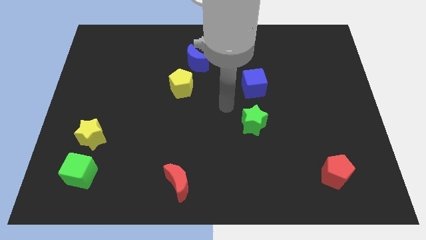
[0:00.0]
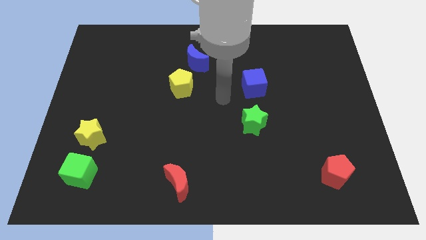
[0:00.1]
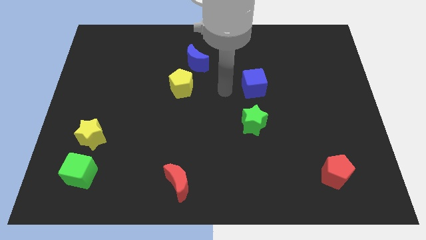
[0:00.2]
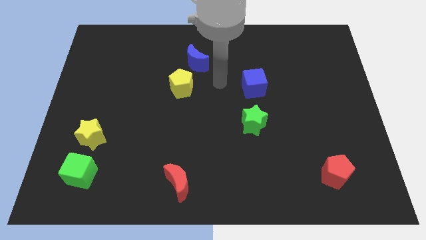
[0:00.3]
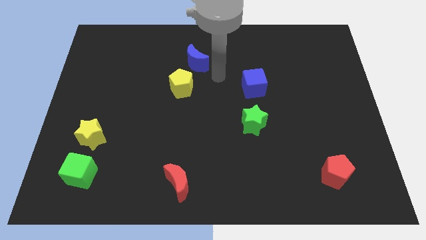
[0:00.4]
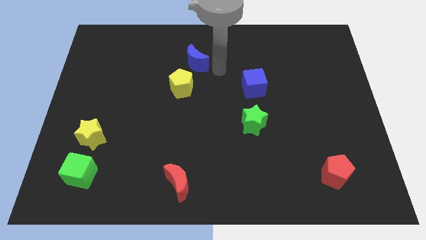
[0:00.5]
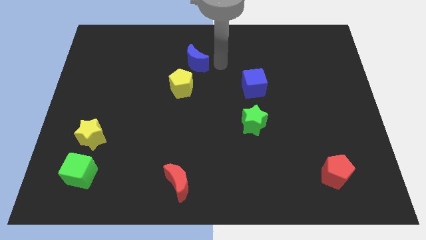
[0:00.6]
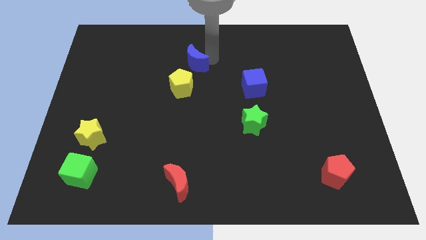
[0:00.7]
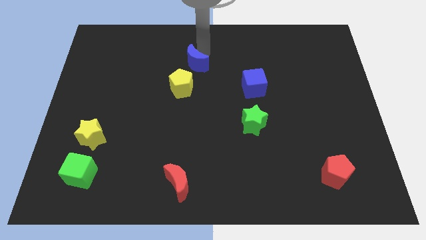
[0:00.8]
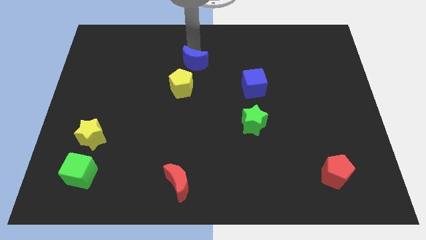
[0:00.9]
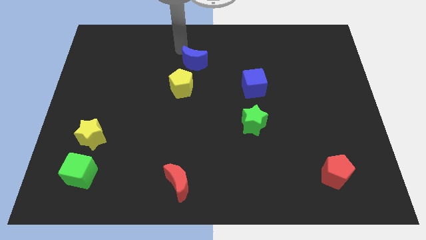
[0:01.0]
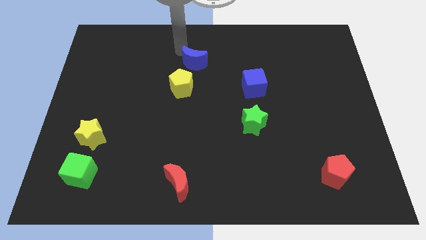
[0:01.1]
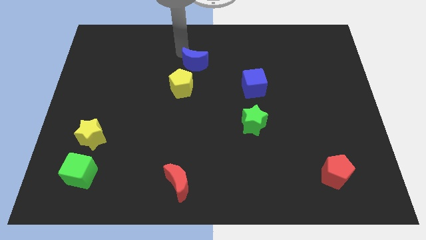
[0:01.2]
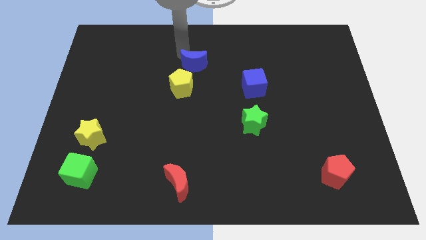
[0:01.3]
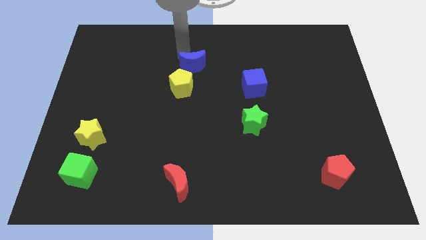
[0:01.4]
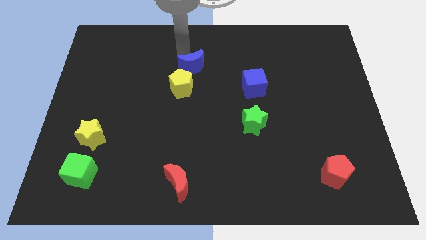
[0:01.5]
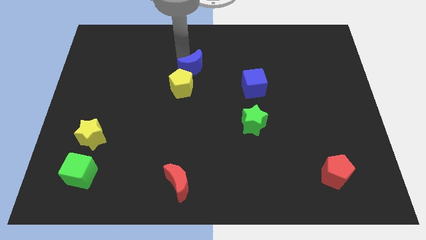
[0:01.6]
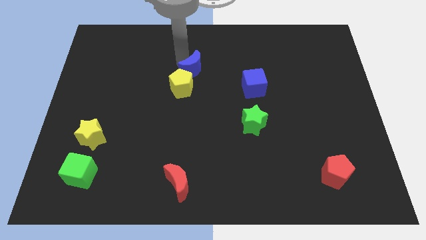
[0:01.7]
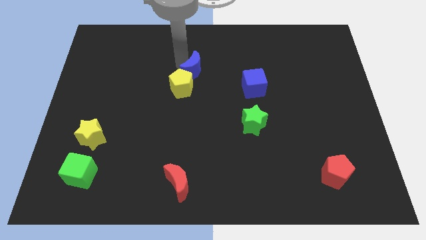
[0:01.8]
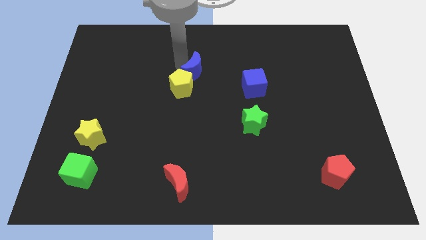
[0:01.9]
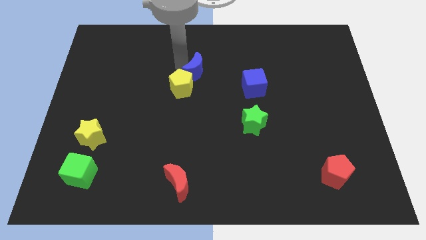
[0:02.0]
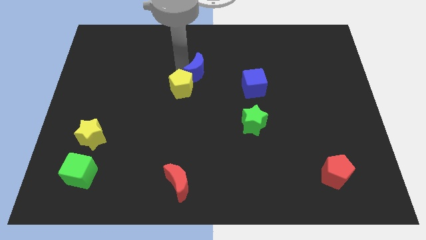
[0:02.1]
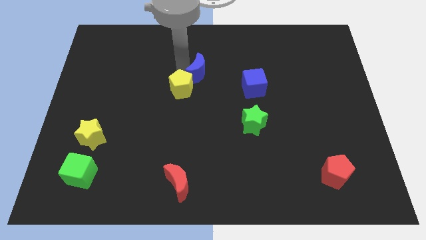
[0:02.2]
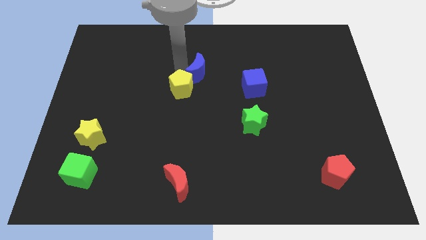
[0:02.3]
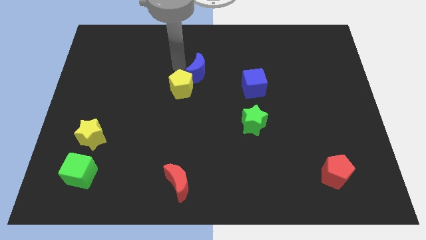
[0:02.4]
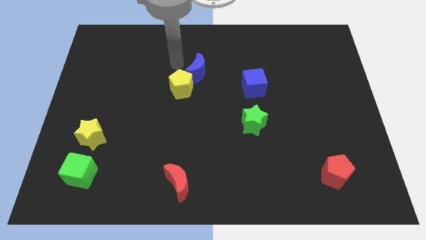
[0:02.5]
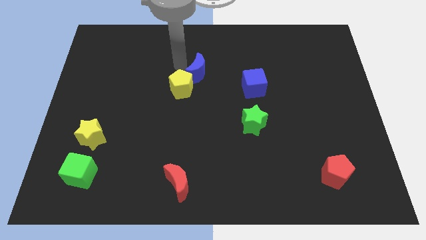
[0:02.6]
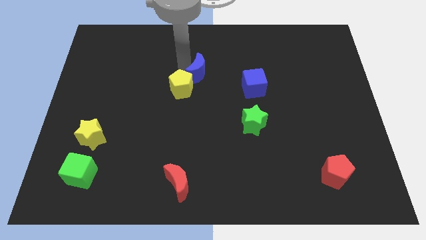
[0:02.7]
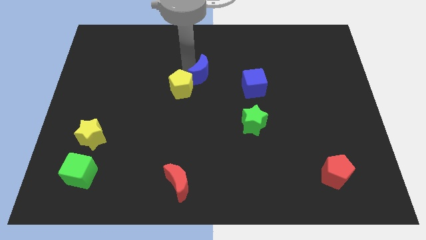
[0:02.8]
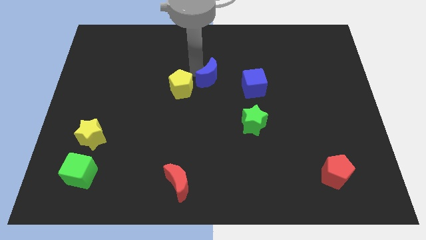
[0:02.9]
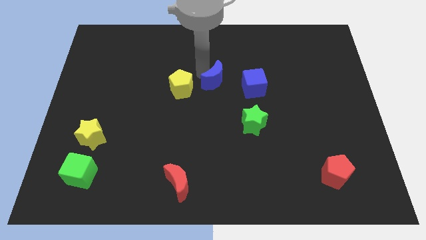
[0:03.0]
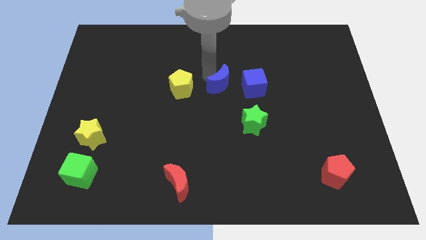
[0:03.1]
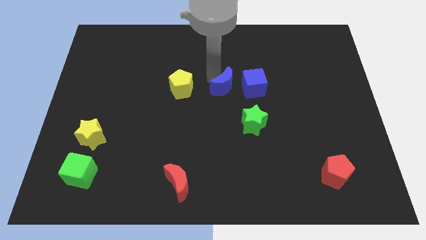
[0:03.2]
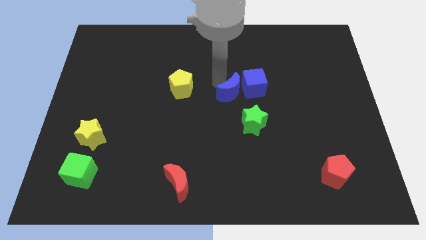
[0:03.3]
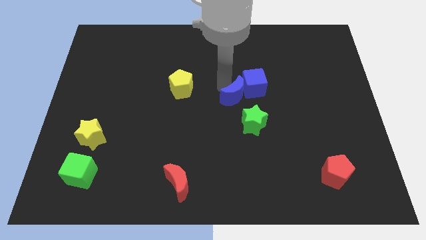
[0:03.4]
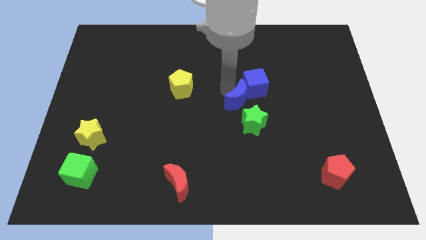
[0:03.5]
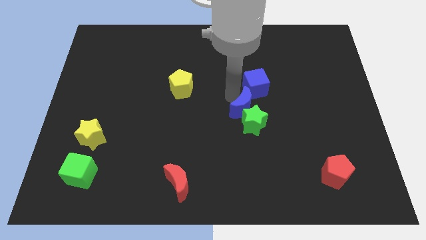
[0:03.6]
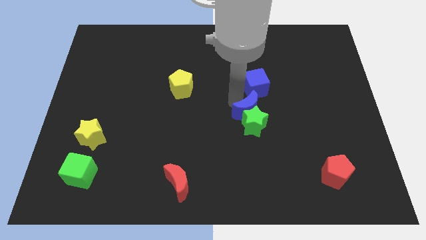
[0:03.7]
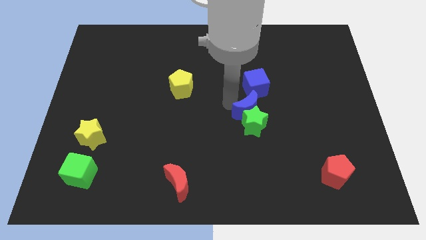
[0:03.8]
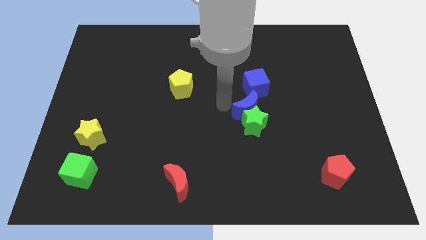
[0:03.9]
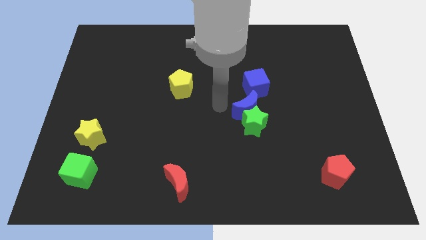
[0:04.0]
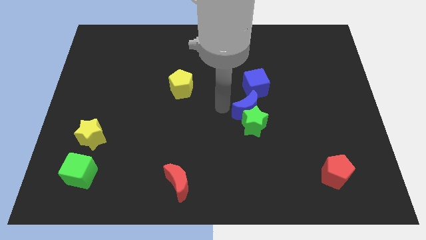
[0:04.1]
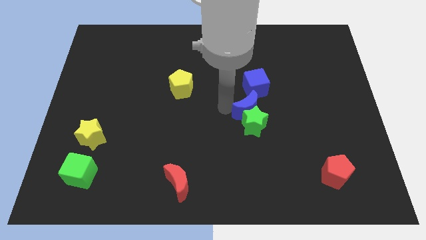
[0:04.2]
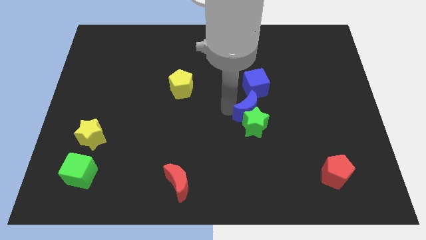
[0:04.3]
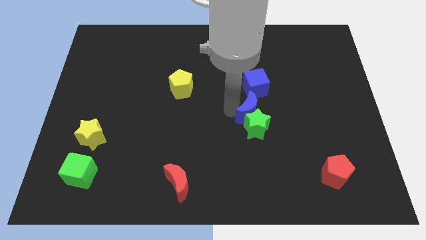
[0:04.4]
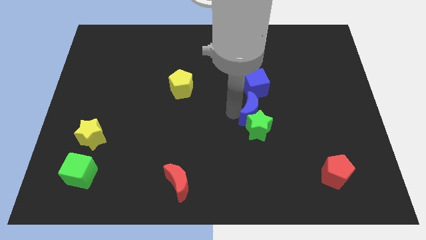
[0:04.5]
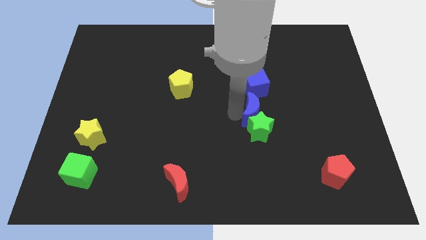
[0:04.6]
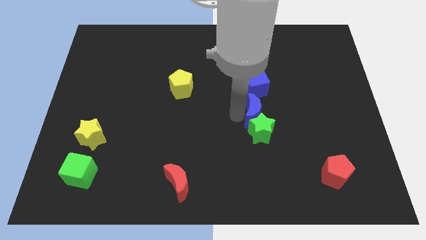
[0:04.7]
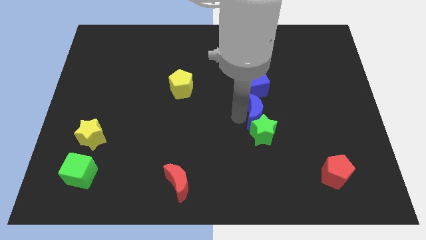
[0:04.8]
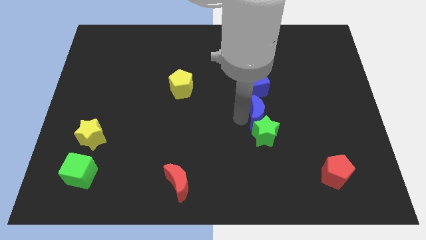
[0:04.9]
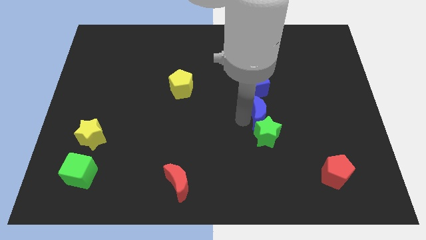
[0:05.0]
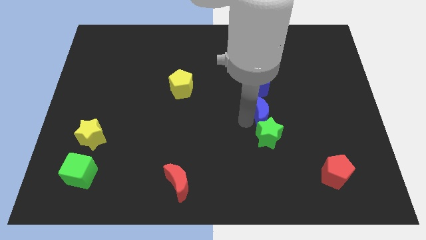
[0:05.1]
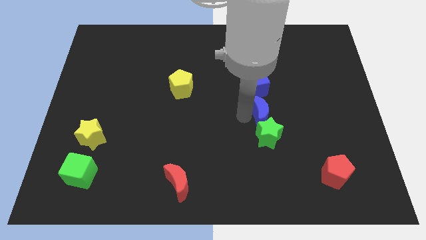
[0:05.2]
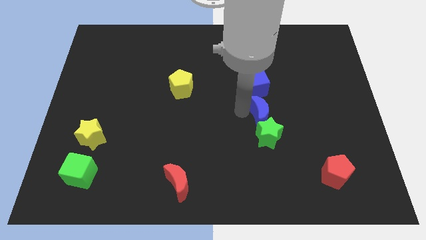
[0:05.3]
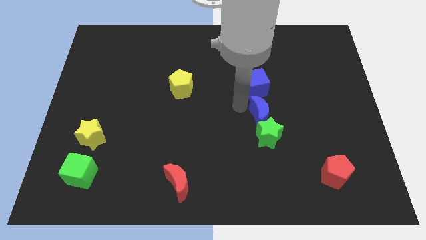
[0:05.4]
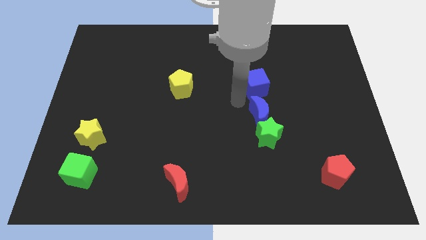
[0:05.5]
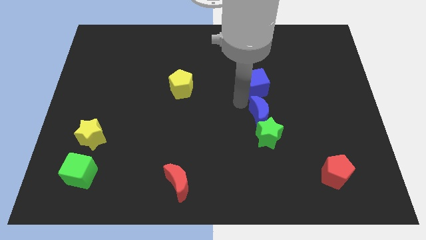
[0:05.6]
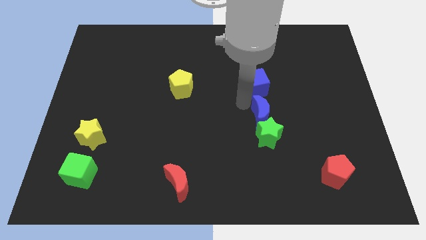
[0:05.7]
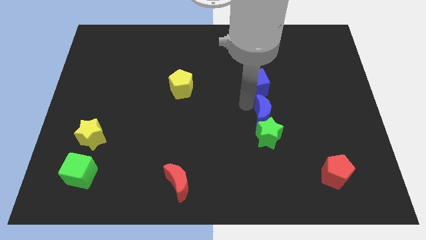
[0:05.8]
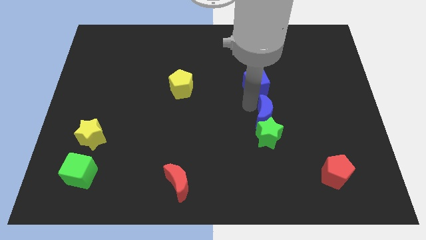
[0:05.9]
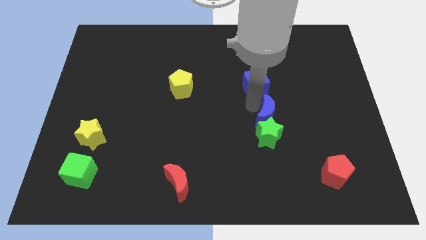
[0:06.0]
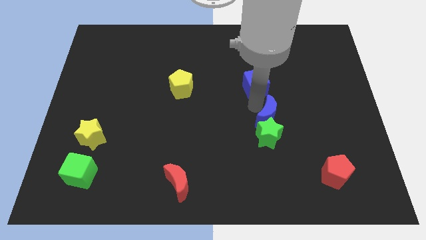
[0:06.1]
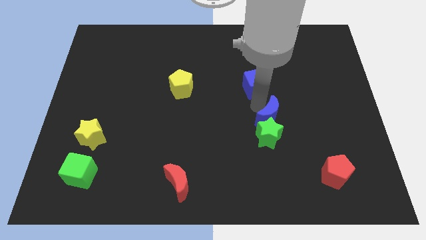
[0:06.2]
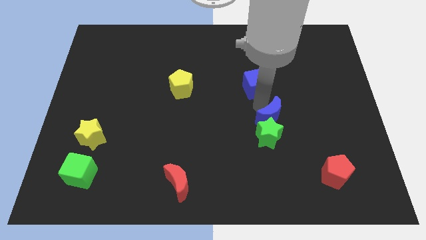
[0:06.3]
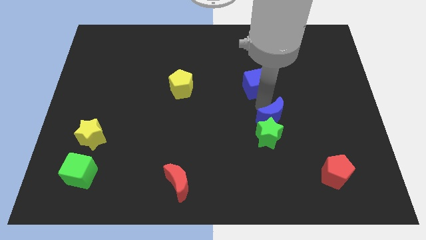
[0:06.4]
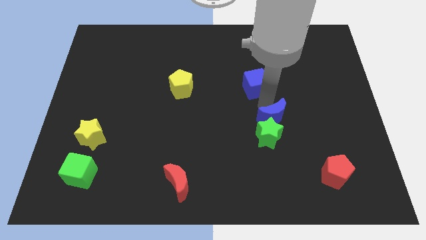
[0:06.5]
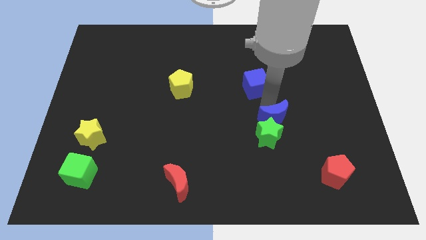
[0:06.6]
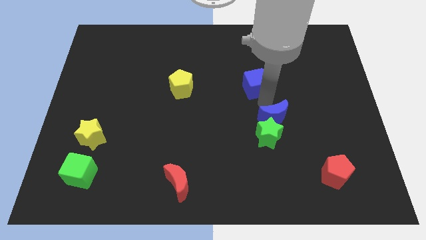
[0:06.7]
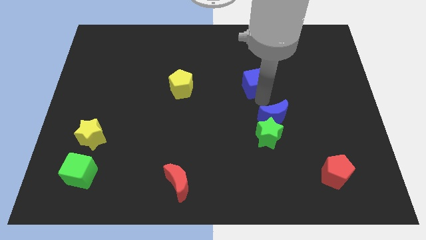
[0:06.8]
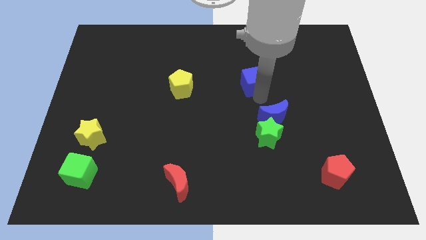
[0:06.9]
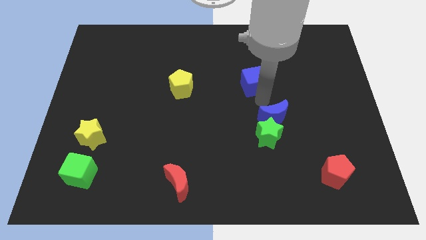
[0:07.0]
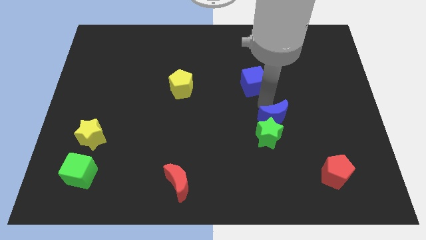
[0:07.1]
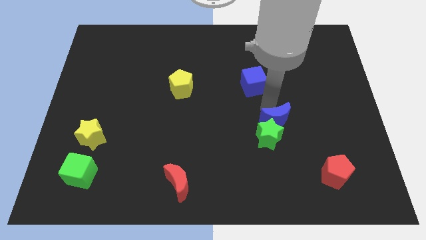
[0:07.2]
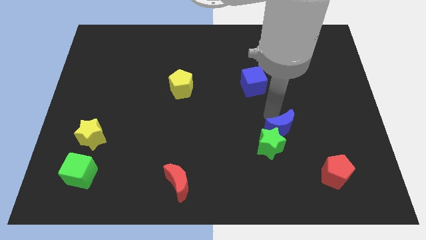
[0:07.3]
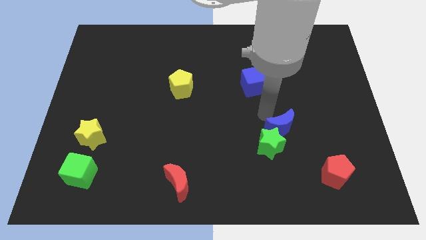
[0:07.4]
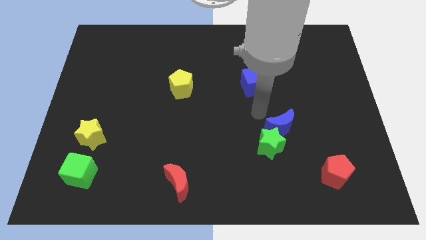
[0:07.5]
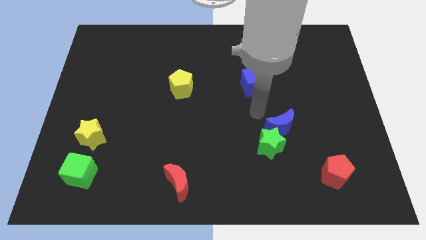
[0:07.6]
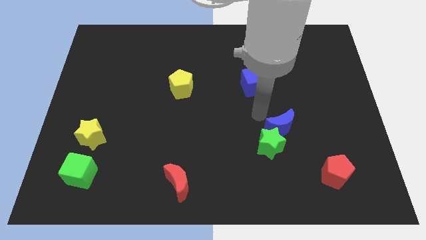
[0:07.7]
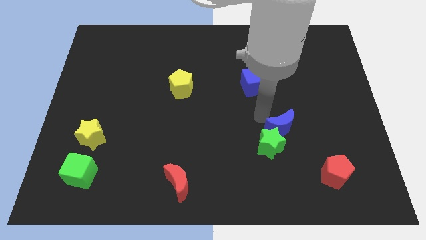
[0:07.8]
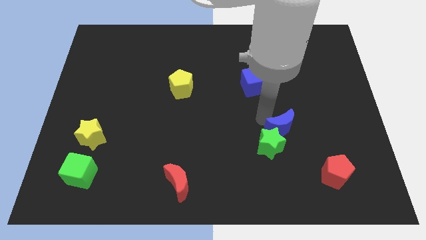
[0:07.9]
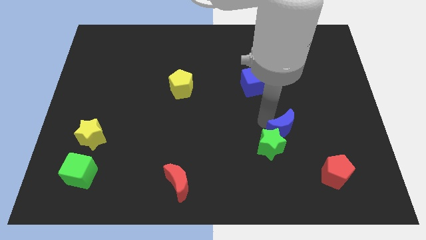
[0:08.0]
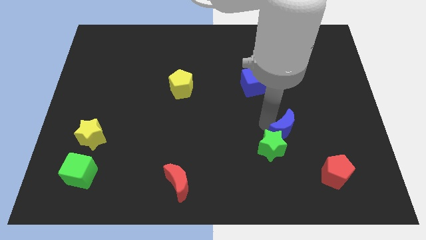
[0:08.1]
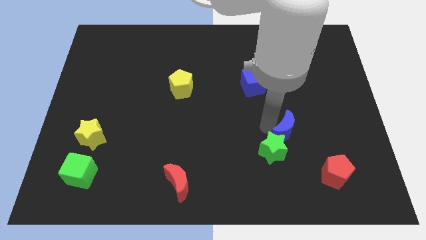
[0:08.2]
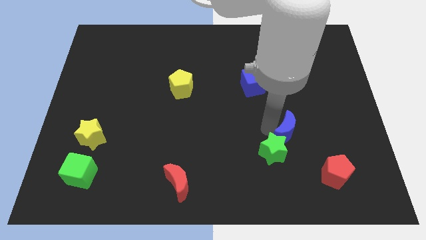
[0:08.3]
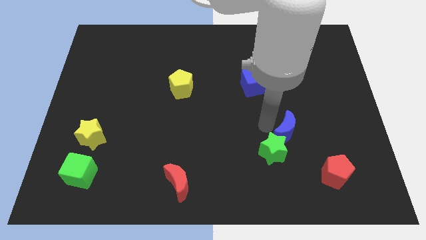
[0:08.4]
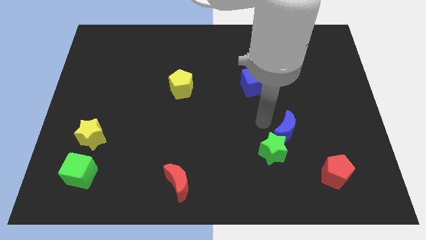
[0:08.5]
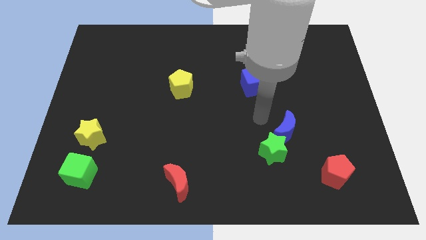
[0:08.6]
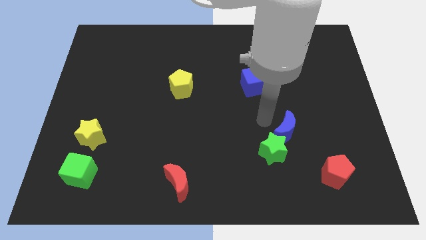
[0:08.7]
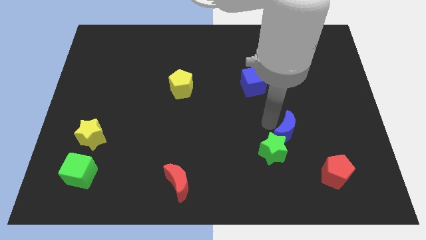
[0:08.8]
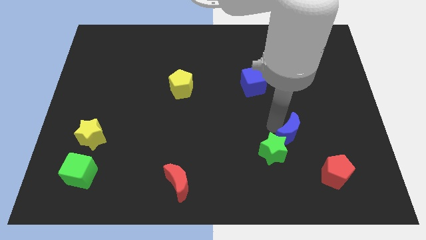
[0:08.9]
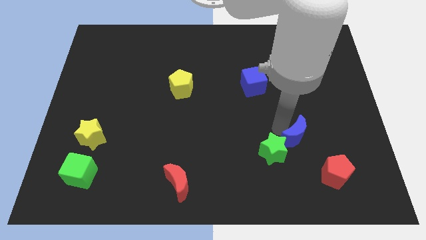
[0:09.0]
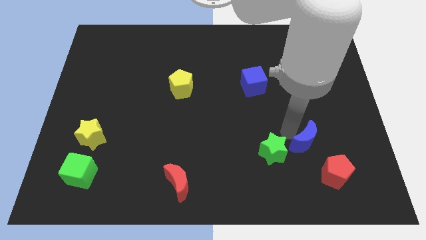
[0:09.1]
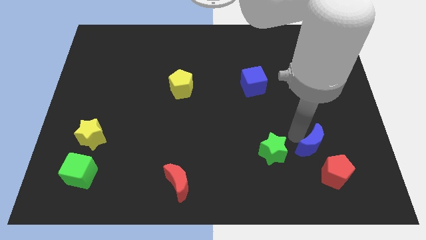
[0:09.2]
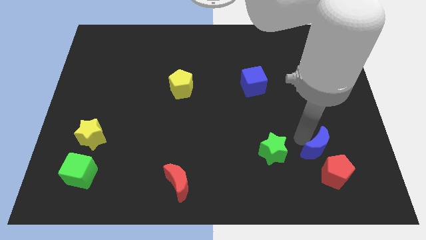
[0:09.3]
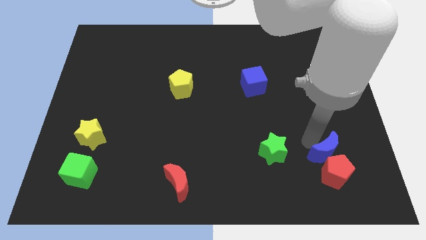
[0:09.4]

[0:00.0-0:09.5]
push the blue moon to the red pentagon
